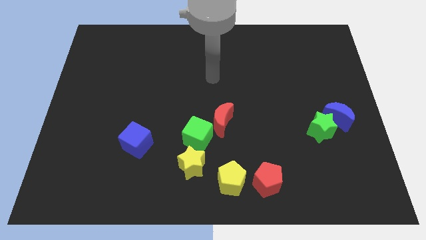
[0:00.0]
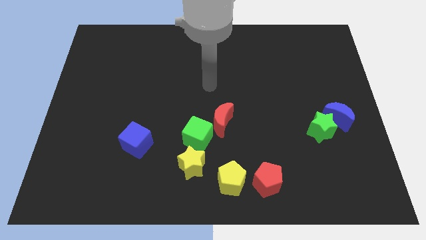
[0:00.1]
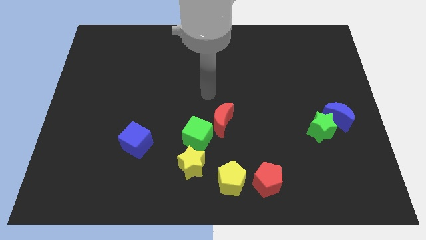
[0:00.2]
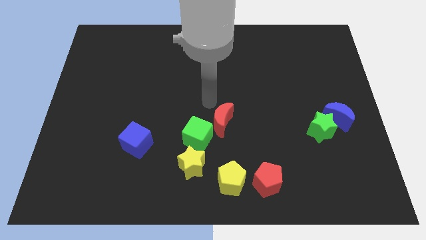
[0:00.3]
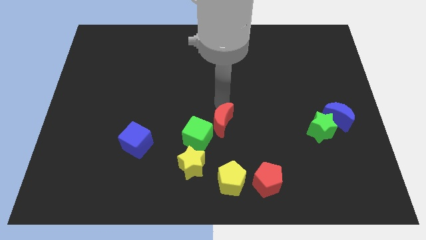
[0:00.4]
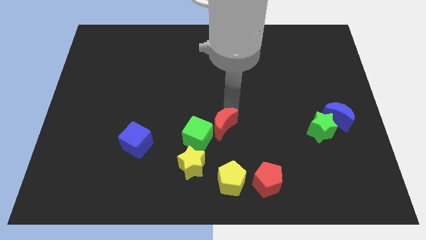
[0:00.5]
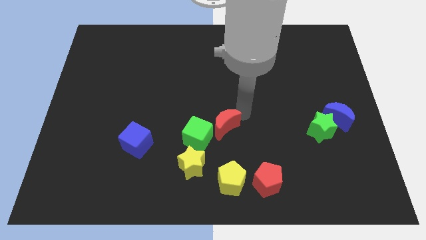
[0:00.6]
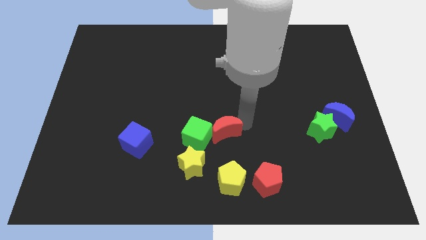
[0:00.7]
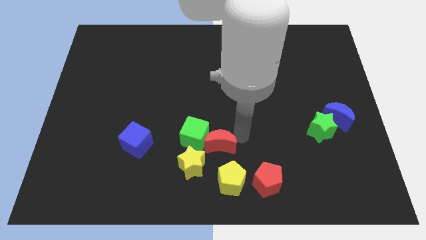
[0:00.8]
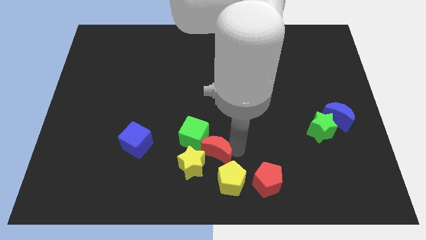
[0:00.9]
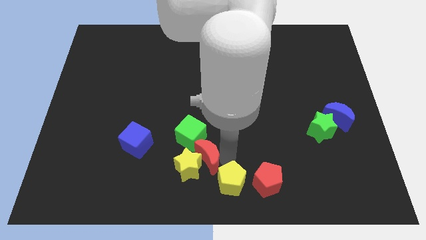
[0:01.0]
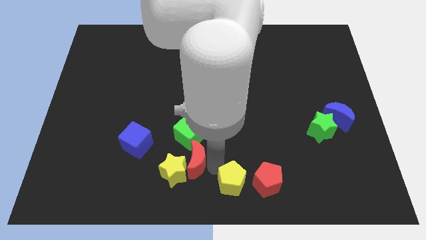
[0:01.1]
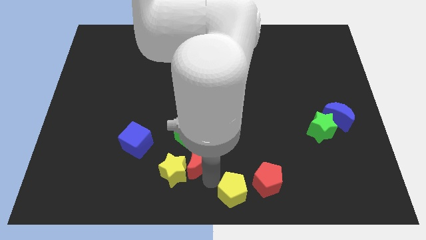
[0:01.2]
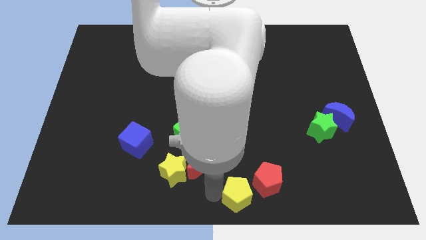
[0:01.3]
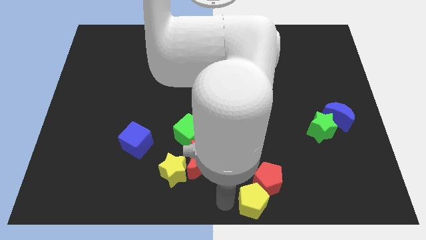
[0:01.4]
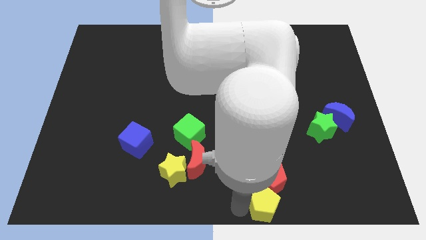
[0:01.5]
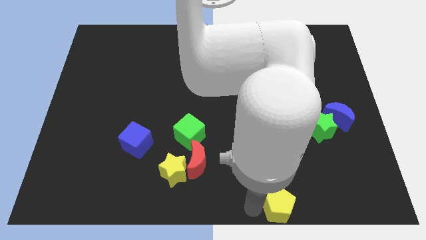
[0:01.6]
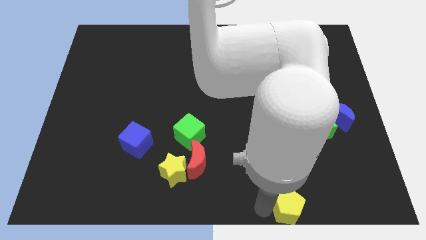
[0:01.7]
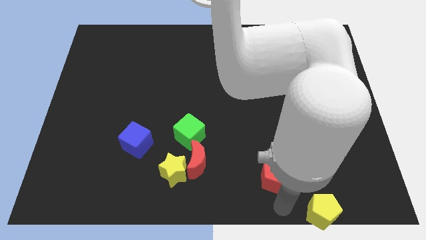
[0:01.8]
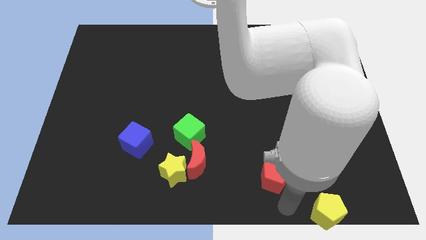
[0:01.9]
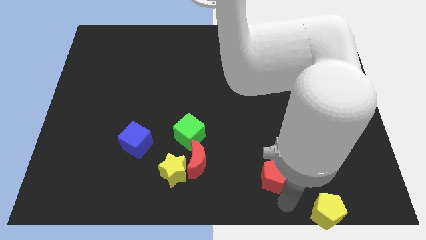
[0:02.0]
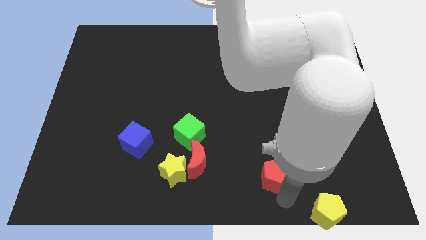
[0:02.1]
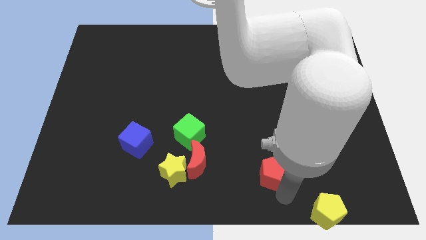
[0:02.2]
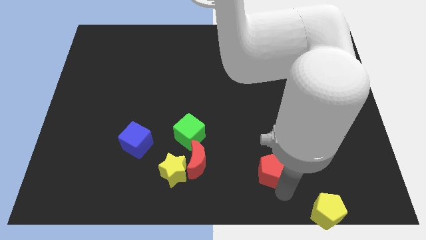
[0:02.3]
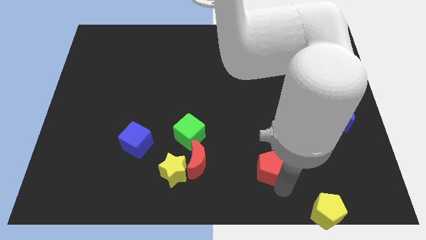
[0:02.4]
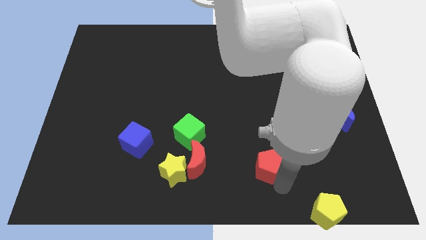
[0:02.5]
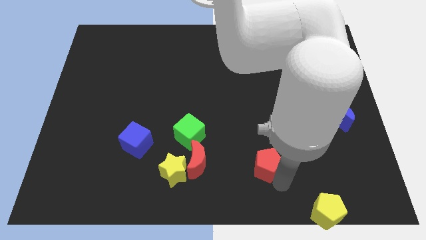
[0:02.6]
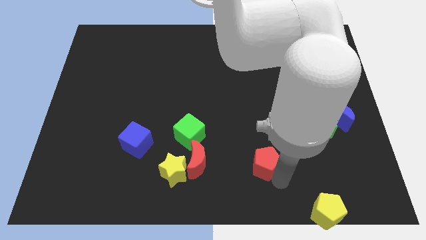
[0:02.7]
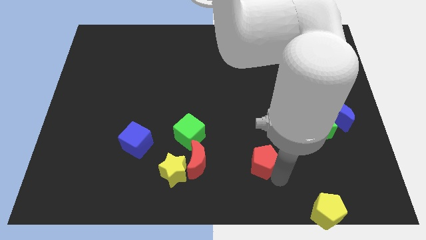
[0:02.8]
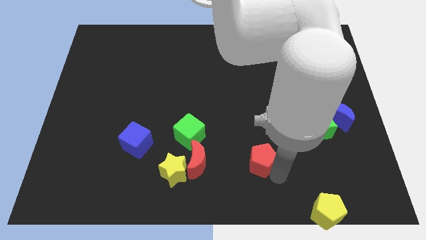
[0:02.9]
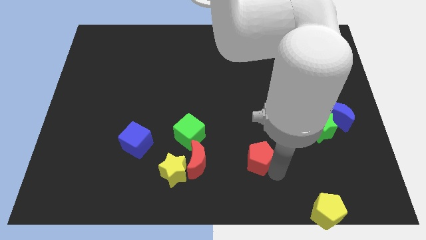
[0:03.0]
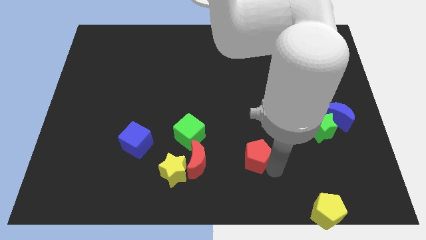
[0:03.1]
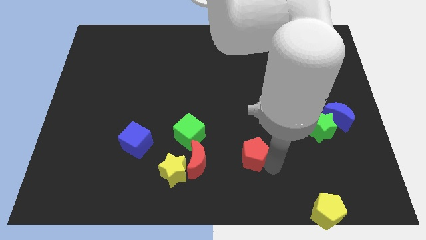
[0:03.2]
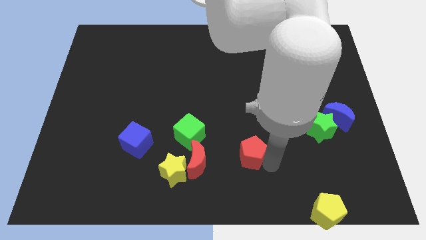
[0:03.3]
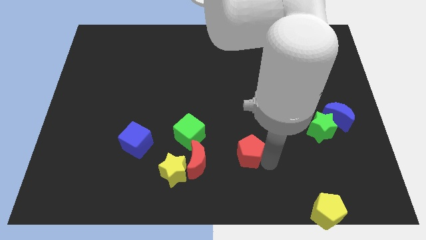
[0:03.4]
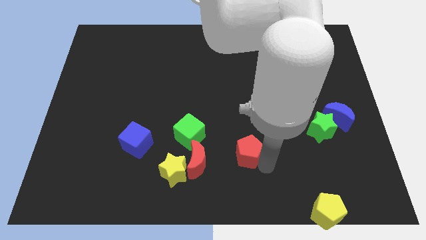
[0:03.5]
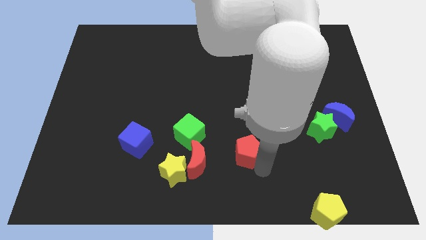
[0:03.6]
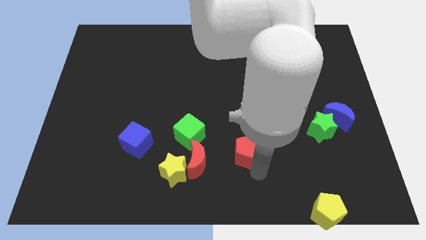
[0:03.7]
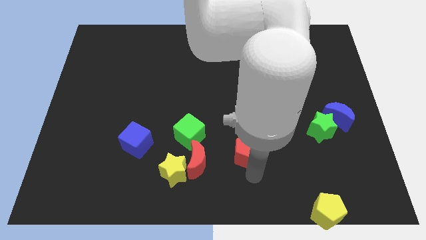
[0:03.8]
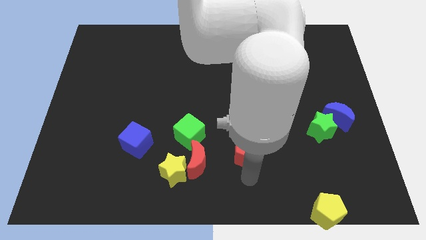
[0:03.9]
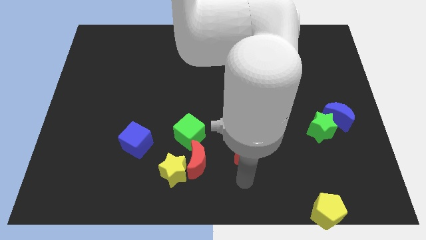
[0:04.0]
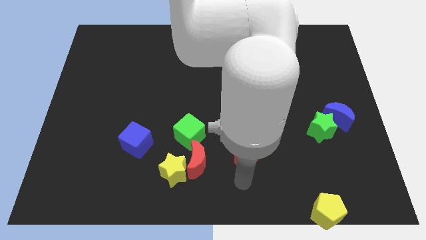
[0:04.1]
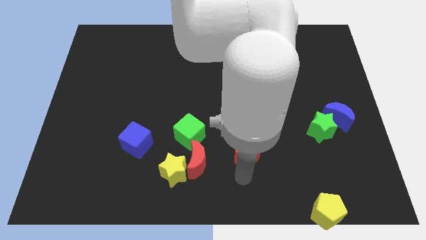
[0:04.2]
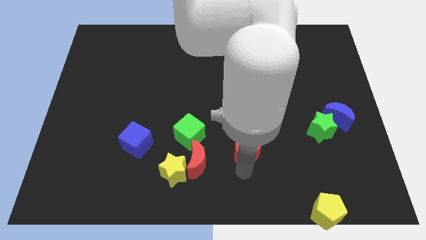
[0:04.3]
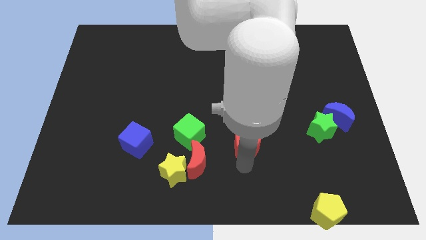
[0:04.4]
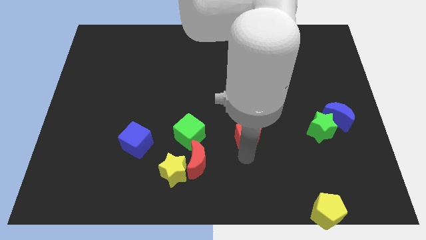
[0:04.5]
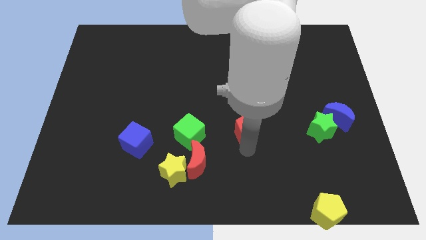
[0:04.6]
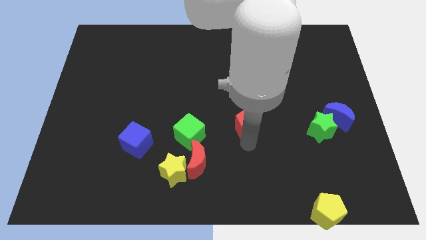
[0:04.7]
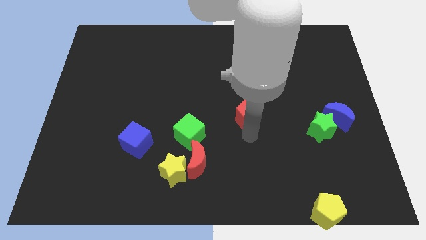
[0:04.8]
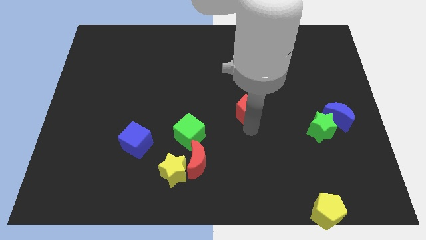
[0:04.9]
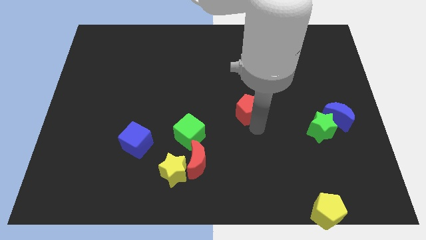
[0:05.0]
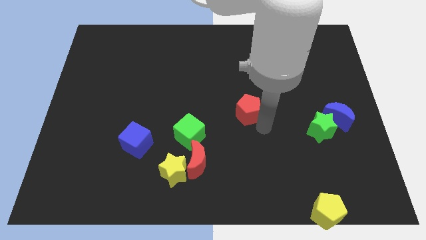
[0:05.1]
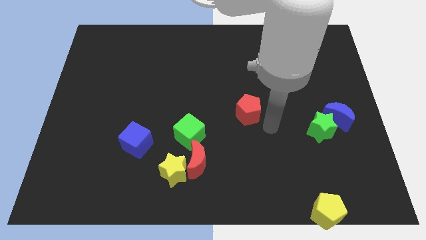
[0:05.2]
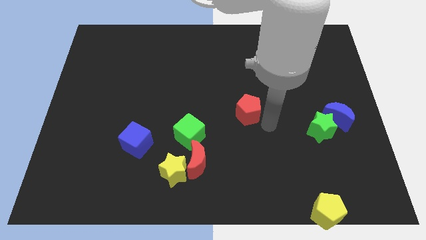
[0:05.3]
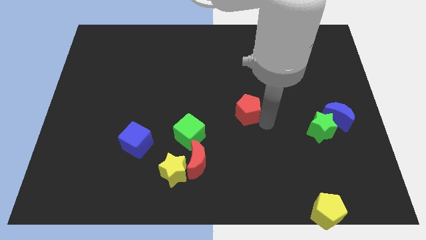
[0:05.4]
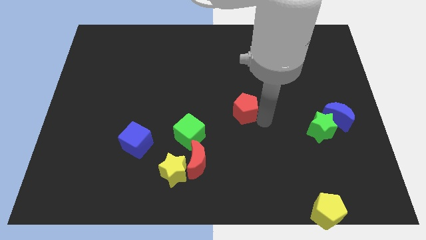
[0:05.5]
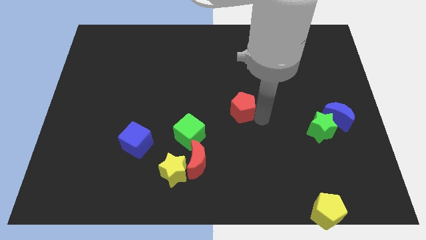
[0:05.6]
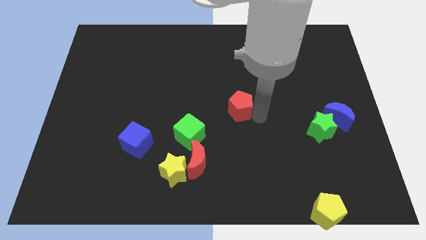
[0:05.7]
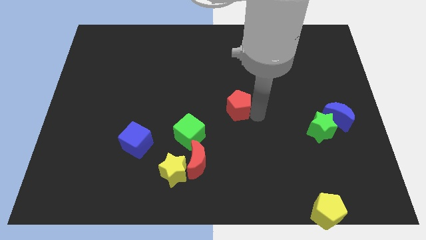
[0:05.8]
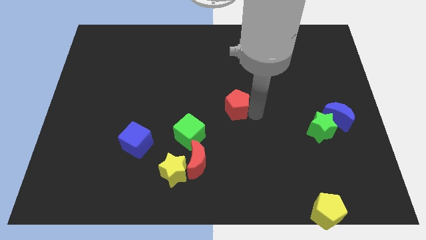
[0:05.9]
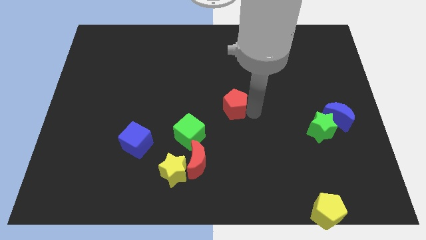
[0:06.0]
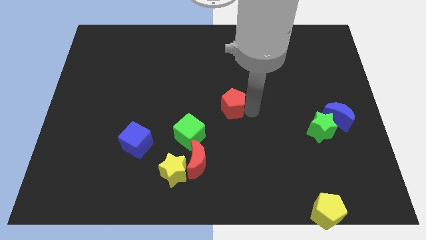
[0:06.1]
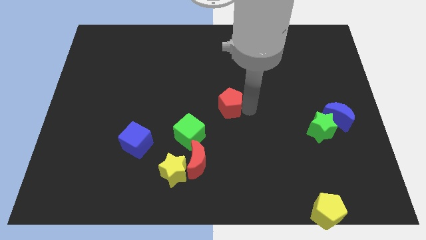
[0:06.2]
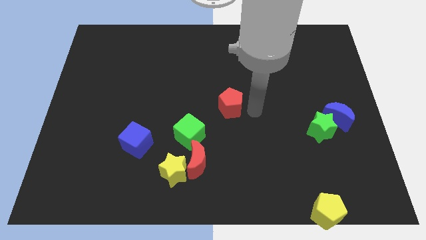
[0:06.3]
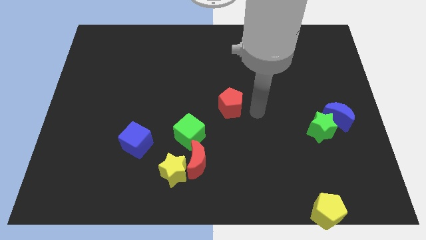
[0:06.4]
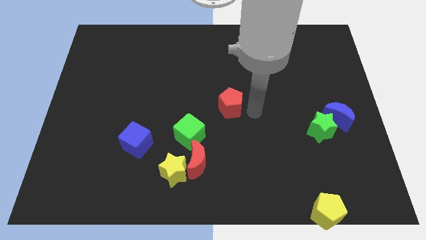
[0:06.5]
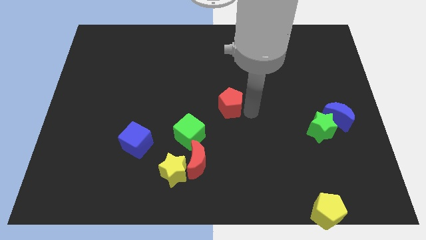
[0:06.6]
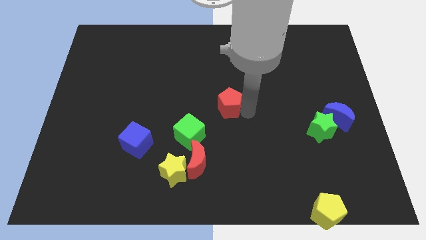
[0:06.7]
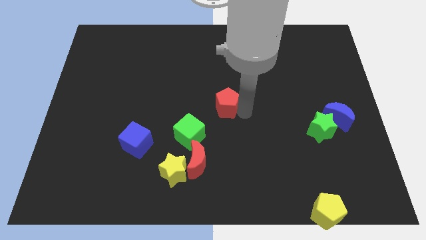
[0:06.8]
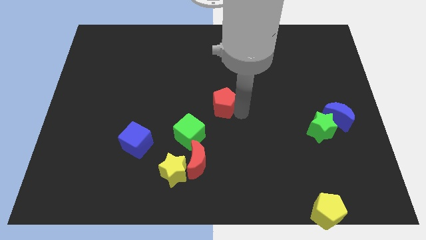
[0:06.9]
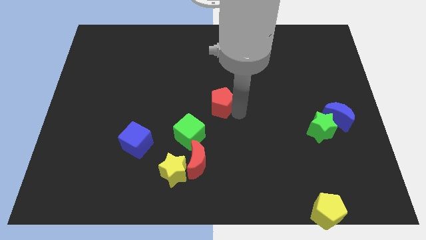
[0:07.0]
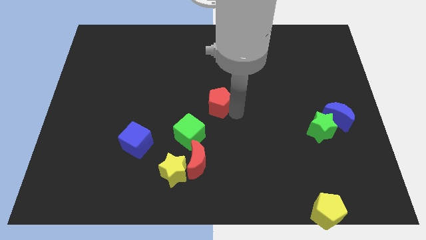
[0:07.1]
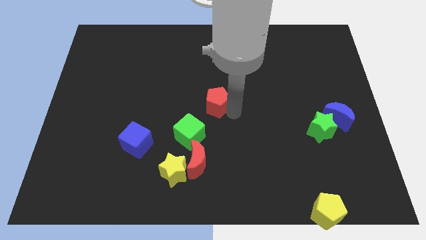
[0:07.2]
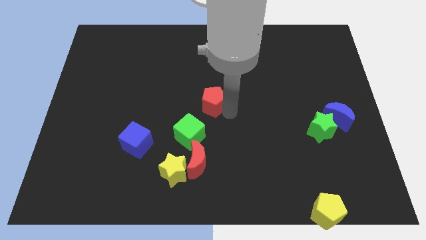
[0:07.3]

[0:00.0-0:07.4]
push the red pentagon up and left diagonally

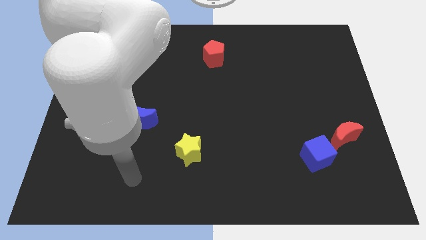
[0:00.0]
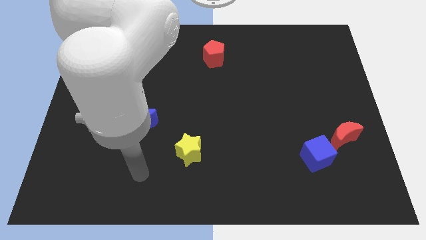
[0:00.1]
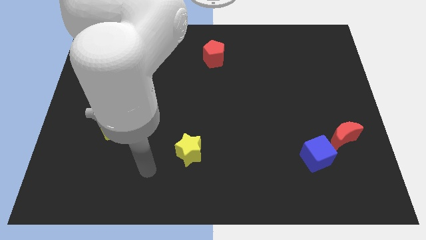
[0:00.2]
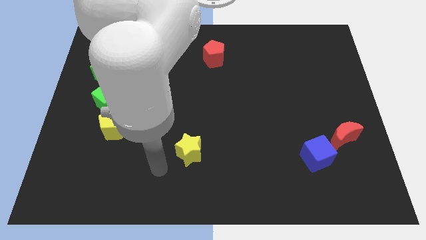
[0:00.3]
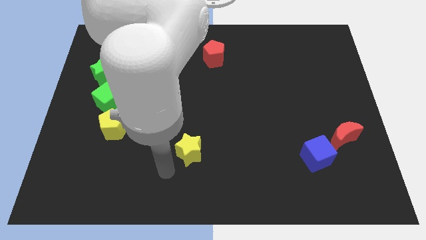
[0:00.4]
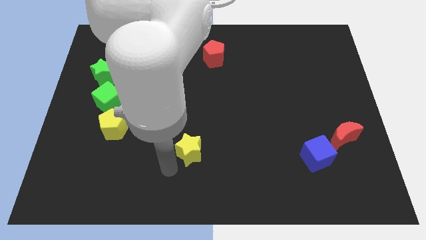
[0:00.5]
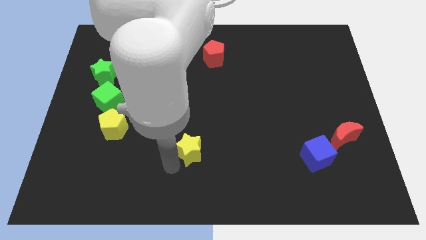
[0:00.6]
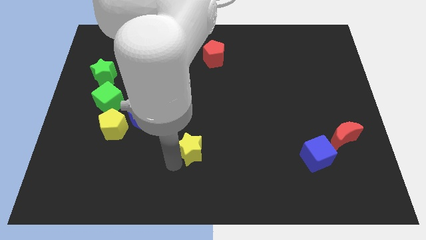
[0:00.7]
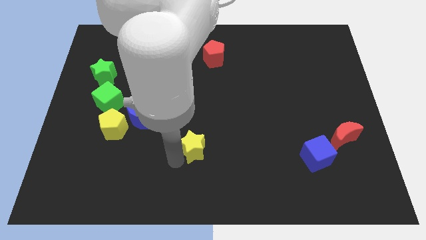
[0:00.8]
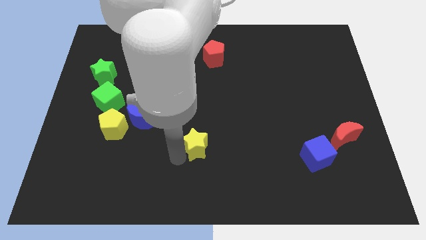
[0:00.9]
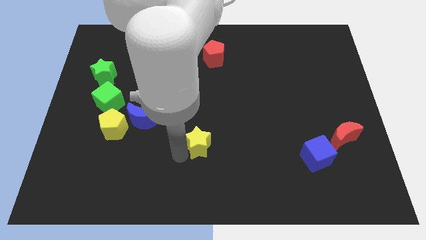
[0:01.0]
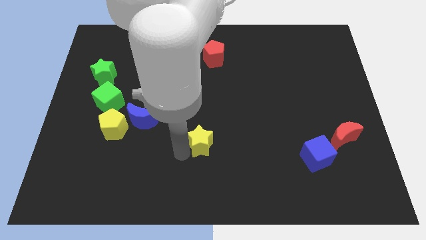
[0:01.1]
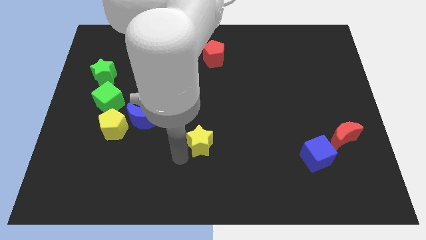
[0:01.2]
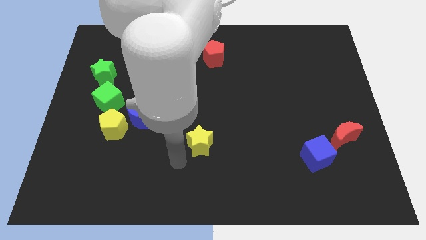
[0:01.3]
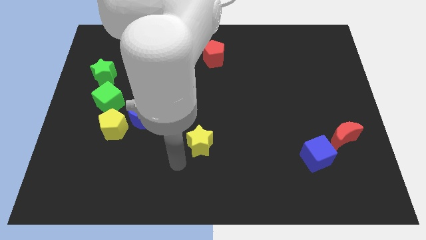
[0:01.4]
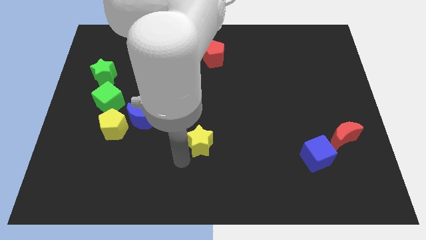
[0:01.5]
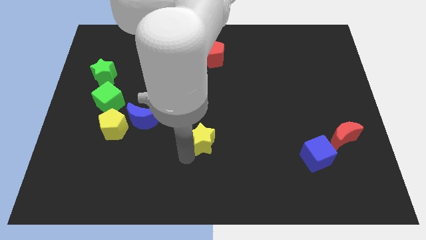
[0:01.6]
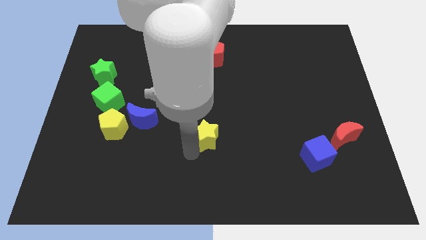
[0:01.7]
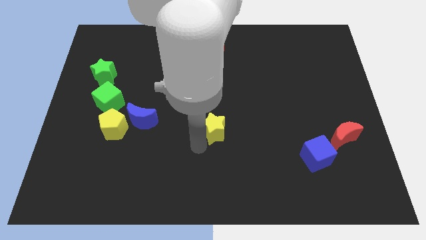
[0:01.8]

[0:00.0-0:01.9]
move the yellow star up and right diagonally a little bit
